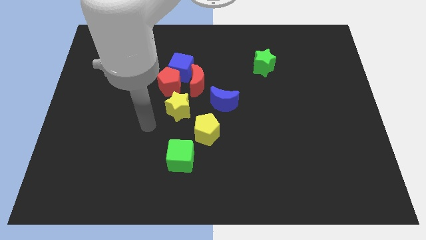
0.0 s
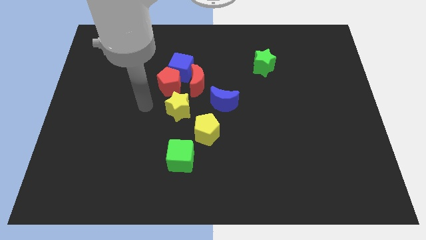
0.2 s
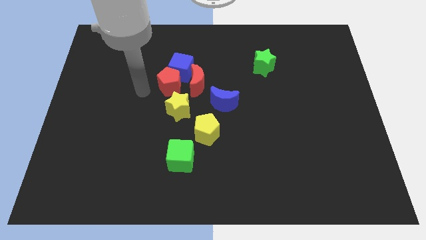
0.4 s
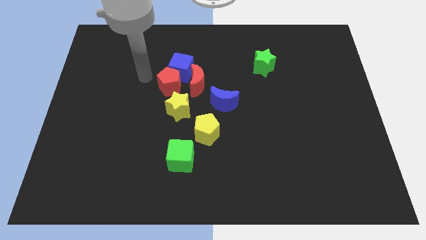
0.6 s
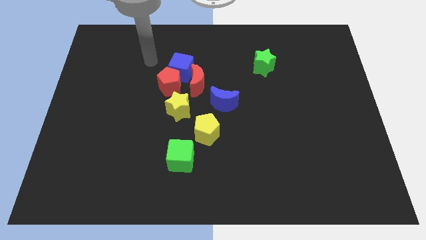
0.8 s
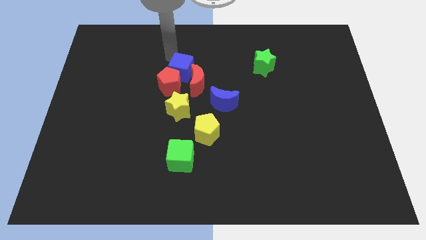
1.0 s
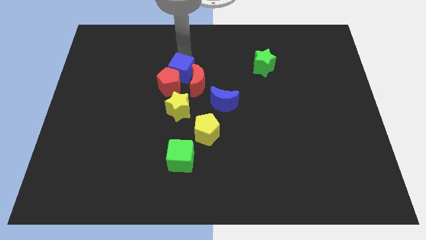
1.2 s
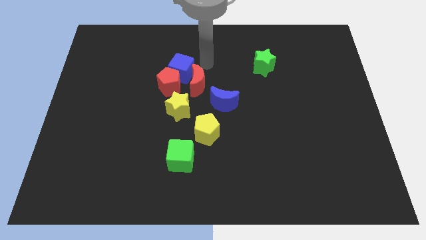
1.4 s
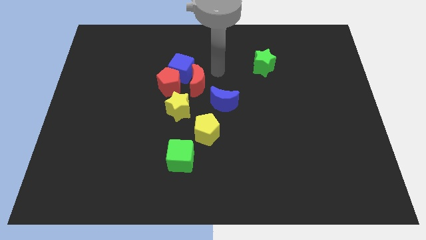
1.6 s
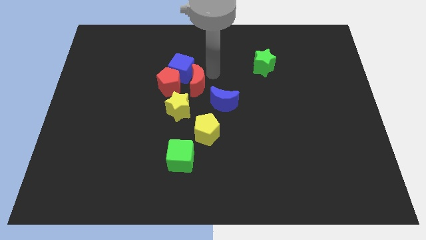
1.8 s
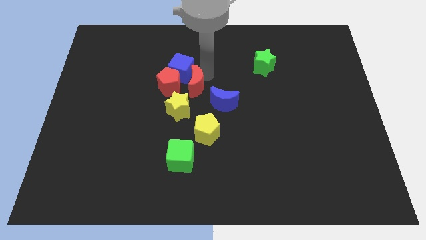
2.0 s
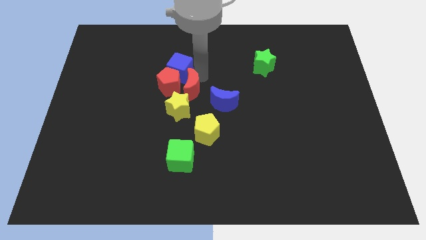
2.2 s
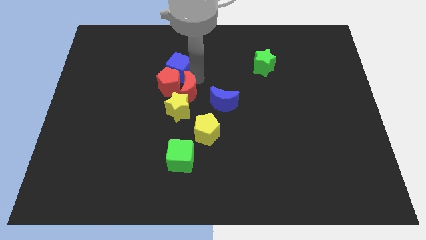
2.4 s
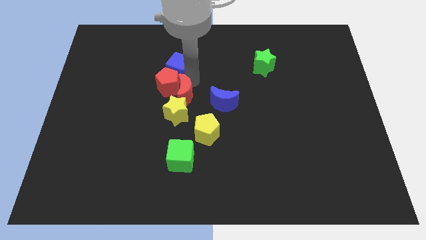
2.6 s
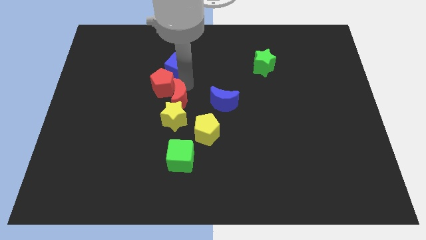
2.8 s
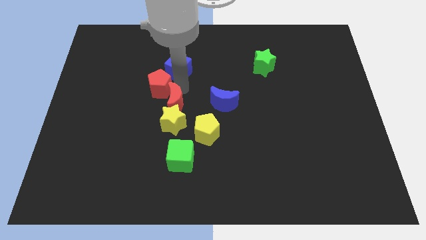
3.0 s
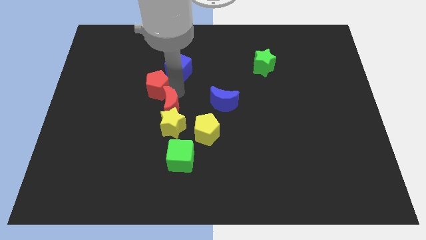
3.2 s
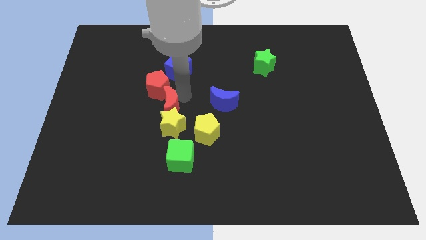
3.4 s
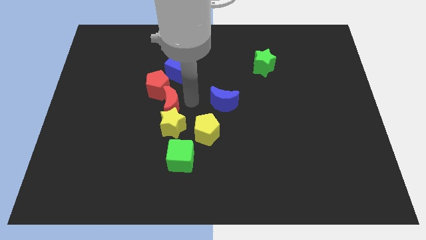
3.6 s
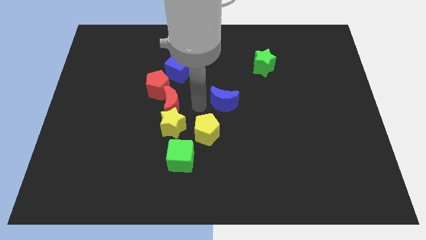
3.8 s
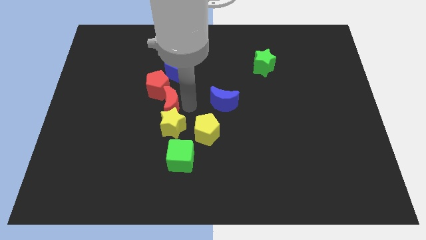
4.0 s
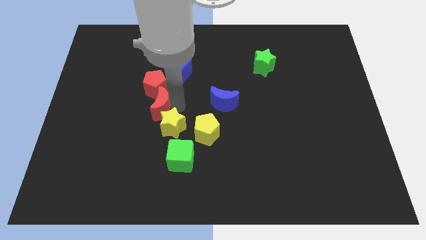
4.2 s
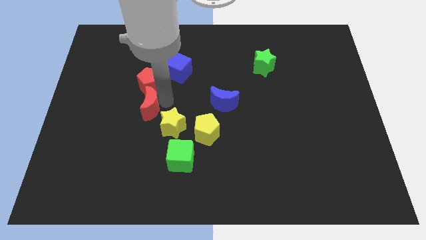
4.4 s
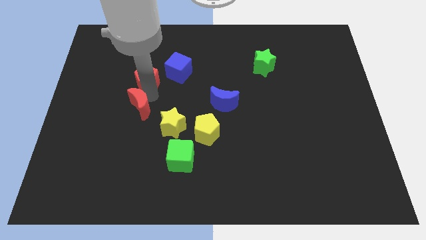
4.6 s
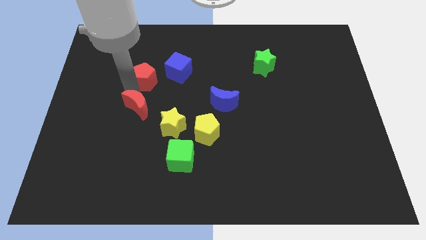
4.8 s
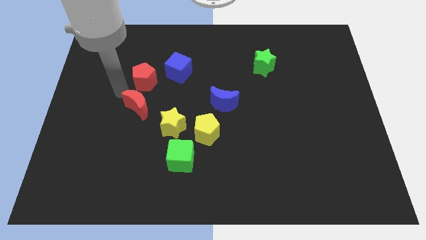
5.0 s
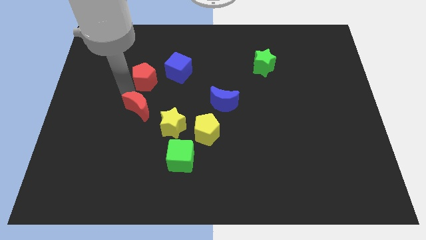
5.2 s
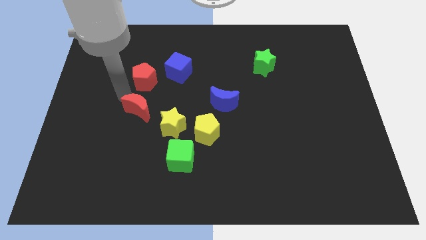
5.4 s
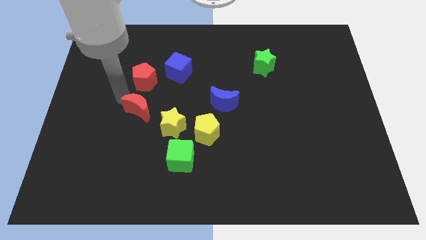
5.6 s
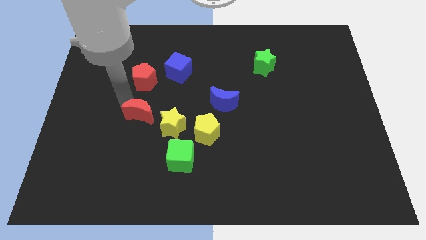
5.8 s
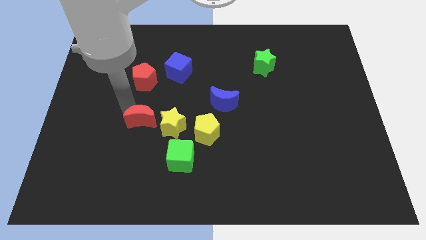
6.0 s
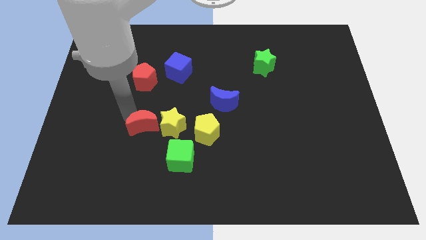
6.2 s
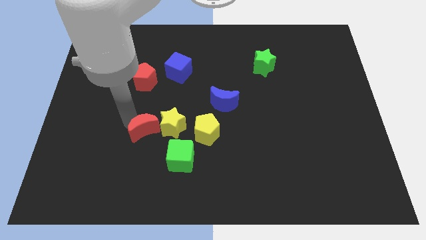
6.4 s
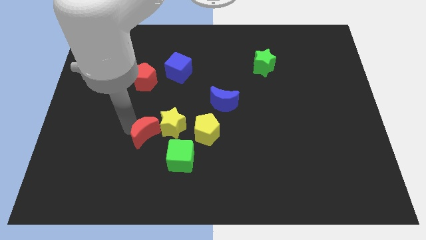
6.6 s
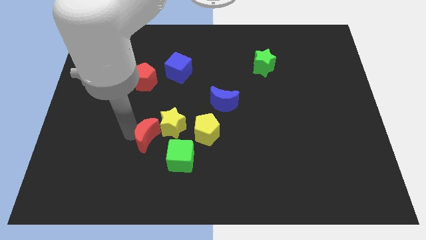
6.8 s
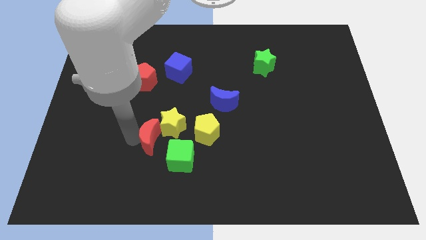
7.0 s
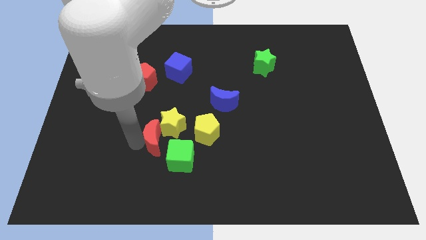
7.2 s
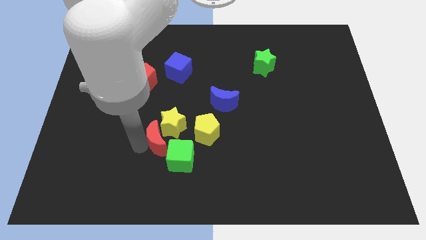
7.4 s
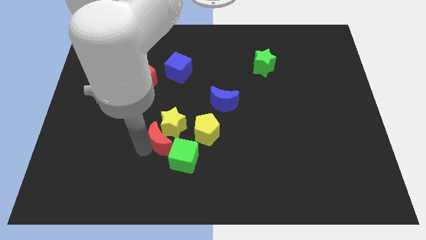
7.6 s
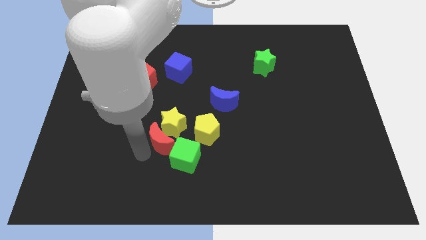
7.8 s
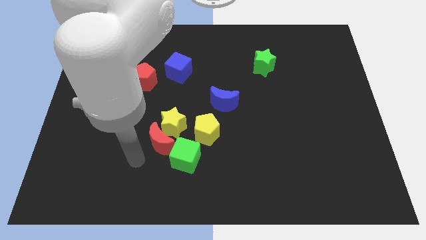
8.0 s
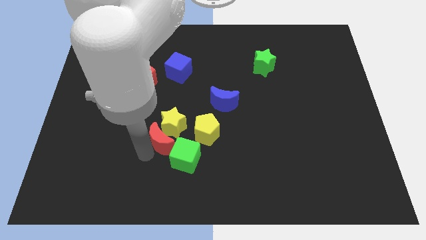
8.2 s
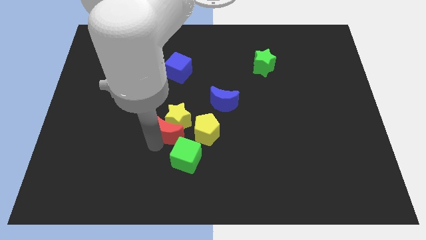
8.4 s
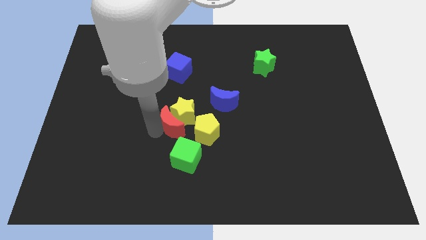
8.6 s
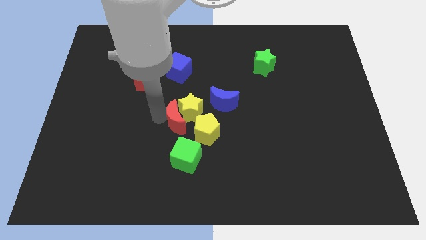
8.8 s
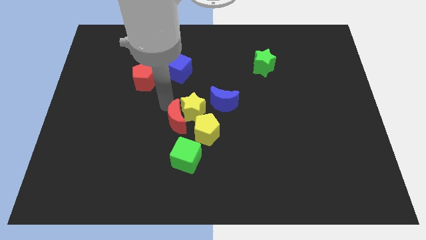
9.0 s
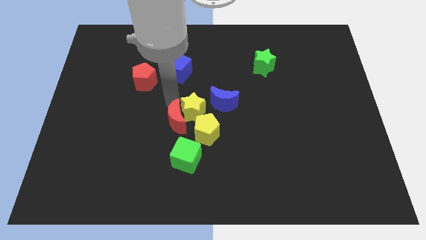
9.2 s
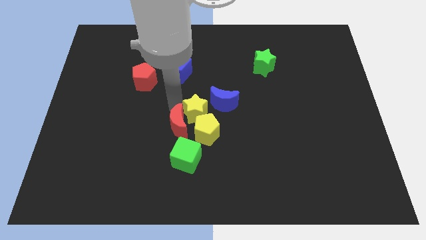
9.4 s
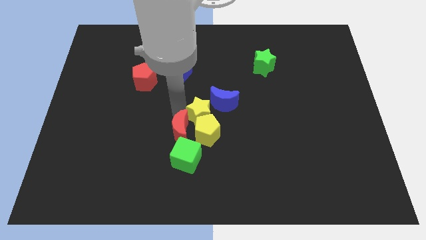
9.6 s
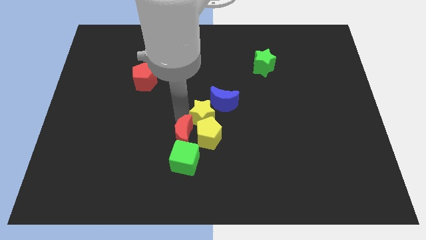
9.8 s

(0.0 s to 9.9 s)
put the red moon to the green cube

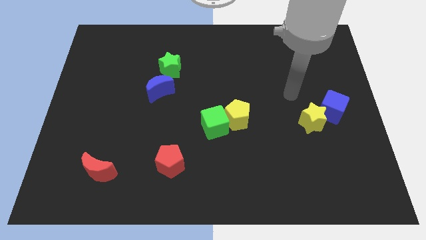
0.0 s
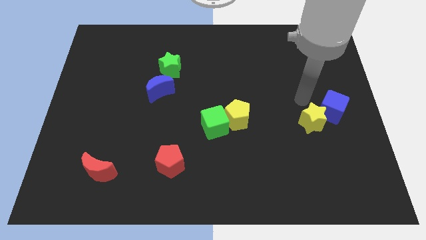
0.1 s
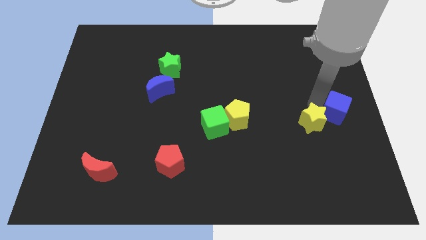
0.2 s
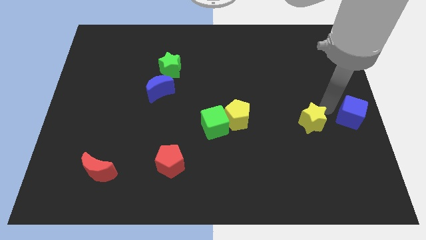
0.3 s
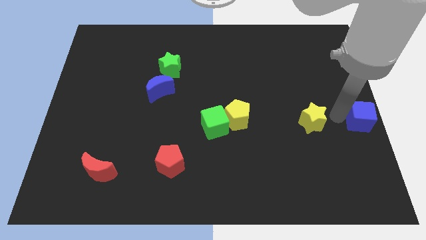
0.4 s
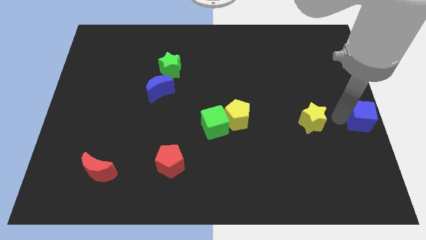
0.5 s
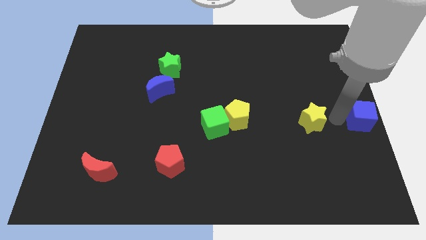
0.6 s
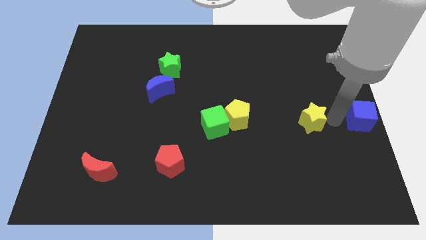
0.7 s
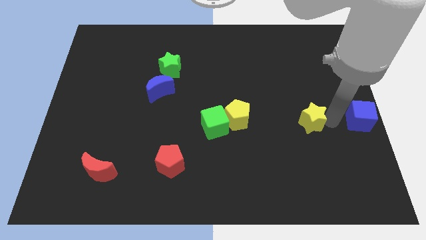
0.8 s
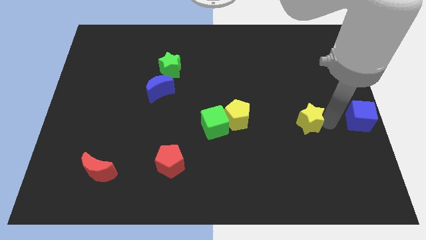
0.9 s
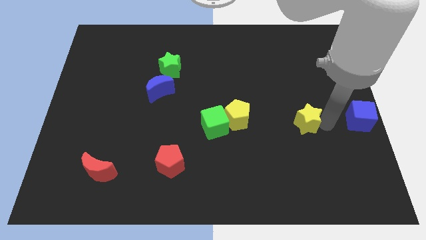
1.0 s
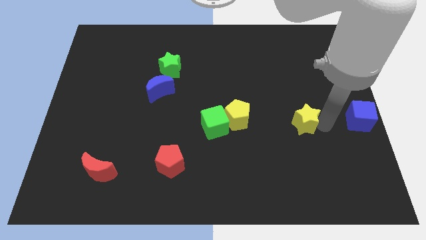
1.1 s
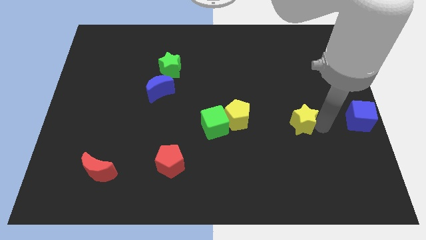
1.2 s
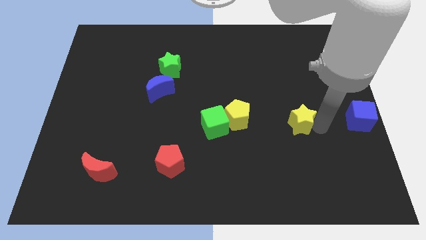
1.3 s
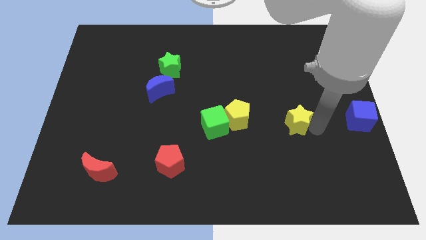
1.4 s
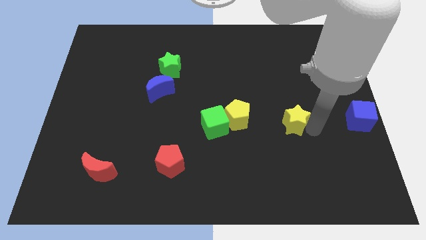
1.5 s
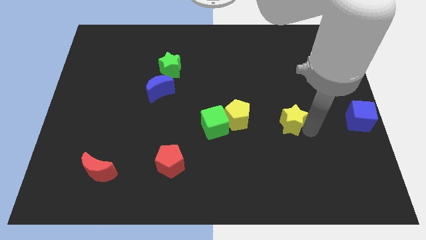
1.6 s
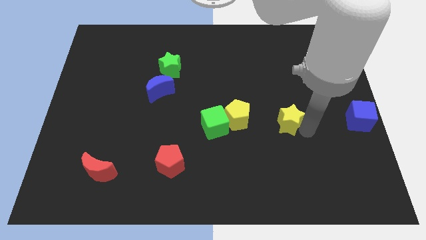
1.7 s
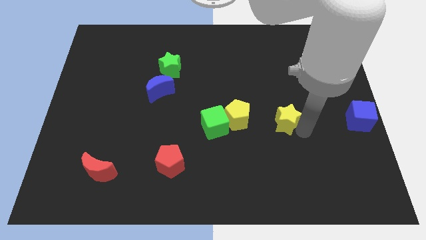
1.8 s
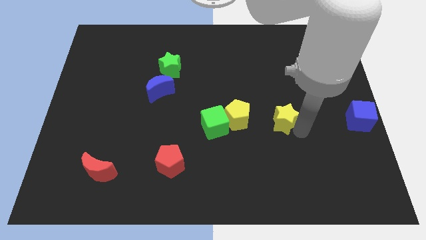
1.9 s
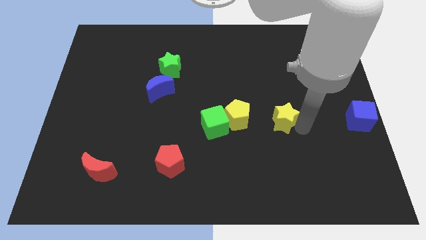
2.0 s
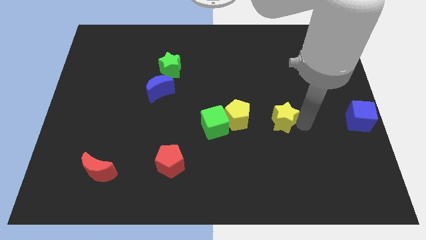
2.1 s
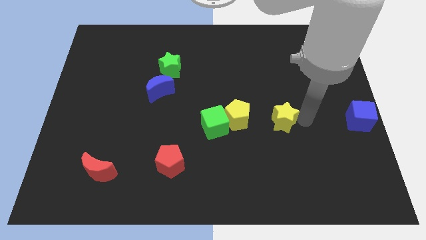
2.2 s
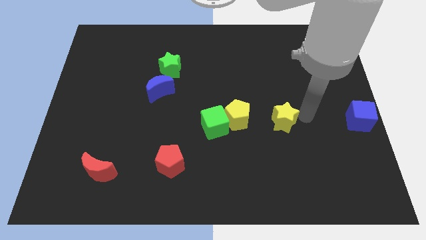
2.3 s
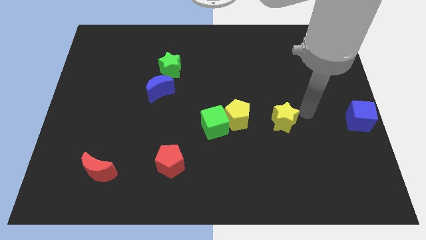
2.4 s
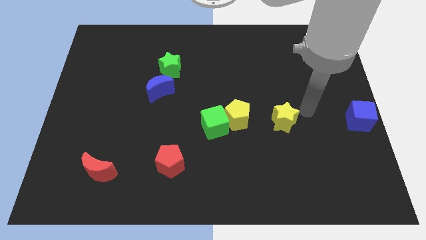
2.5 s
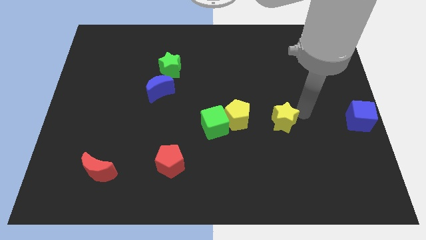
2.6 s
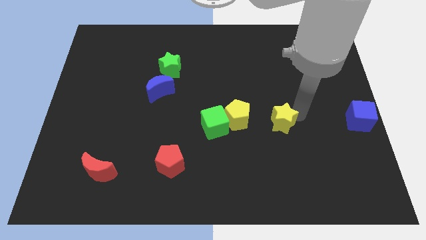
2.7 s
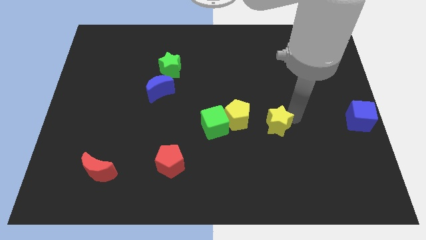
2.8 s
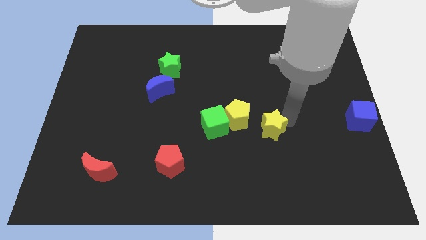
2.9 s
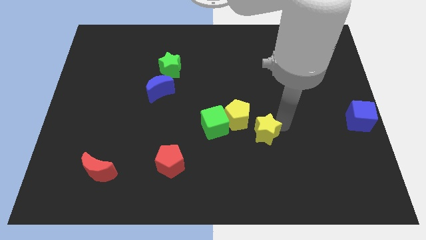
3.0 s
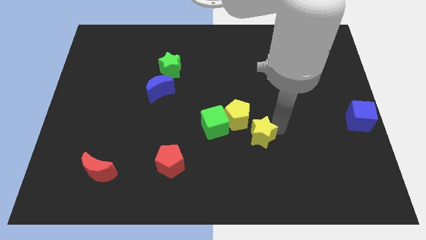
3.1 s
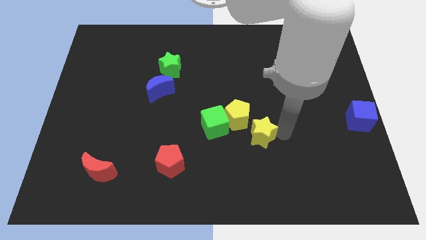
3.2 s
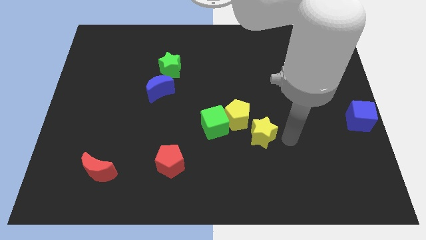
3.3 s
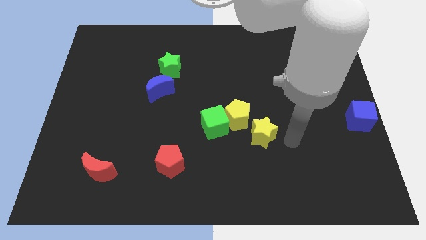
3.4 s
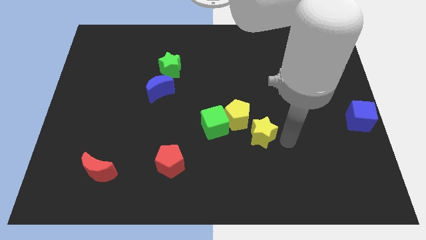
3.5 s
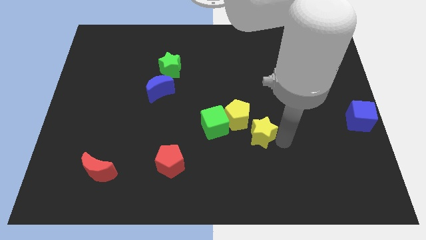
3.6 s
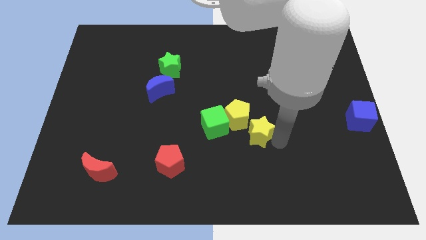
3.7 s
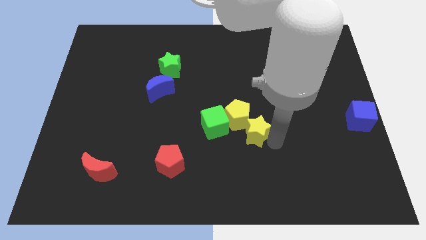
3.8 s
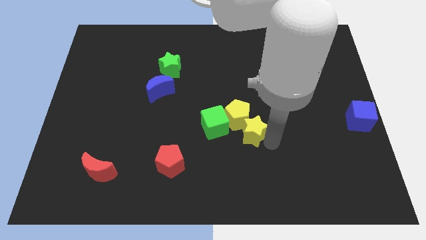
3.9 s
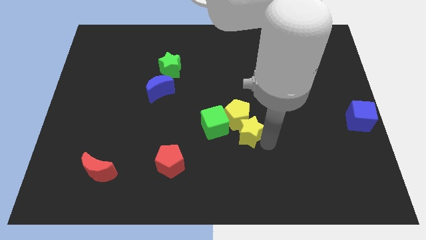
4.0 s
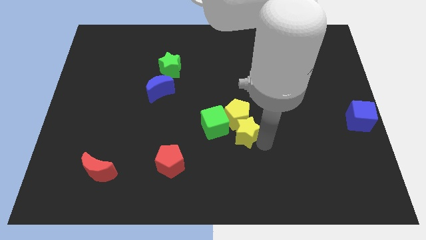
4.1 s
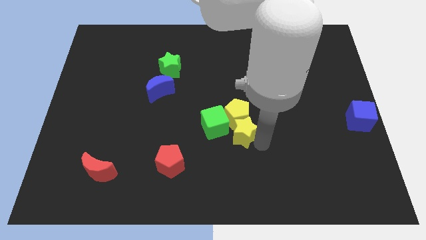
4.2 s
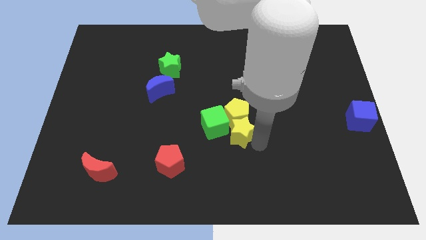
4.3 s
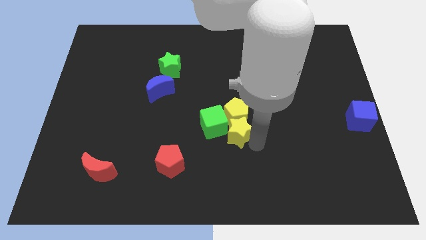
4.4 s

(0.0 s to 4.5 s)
put the yellow star towards the green cube
